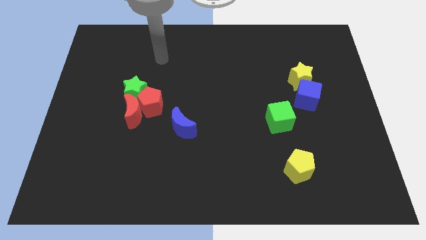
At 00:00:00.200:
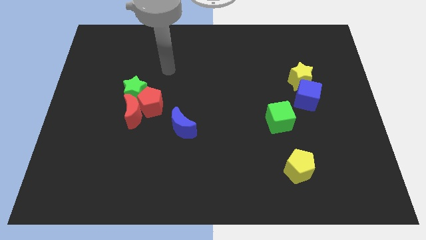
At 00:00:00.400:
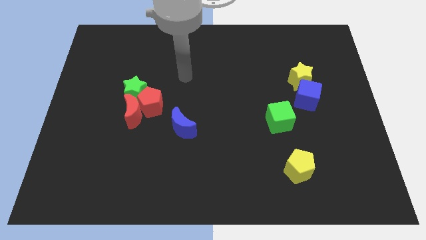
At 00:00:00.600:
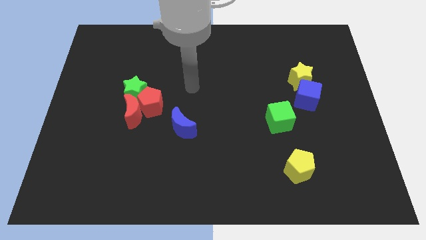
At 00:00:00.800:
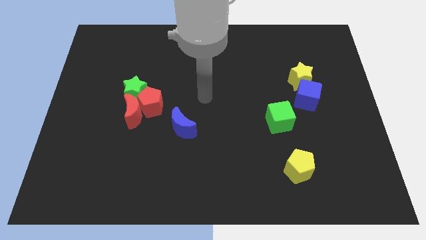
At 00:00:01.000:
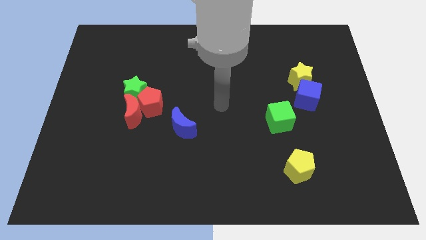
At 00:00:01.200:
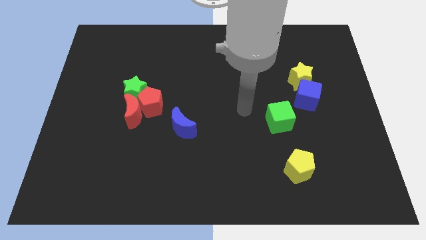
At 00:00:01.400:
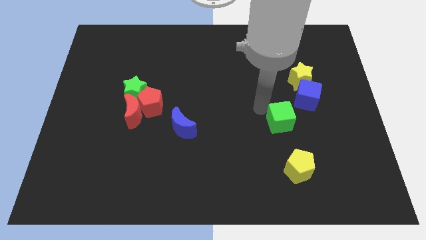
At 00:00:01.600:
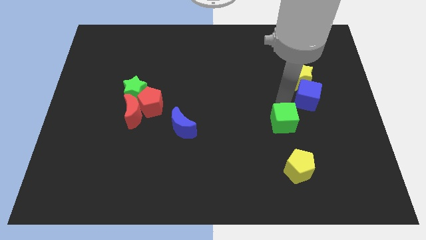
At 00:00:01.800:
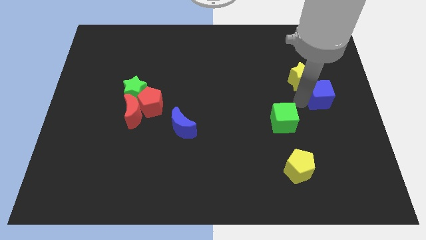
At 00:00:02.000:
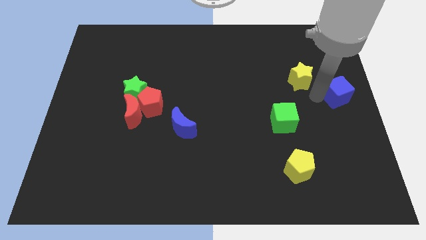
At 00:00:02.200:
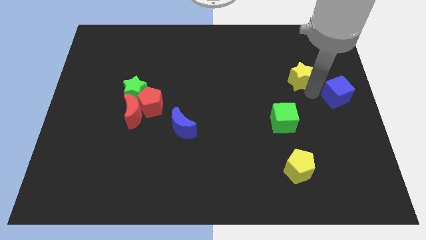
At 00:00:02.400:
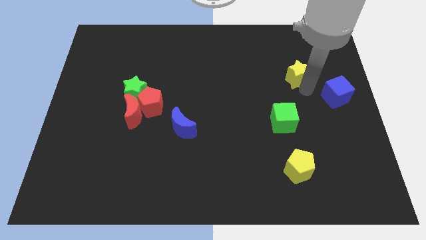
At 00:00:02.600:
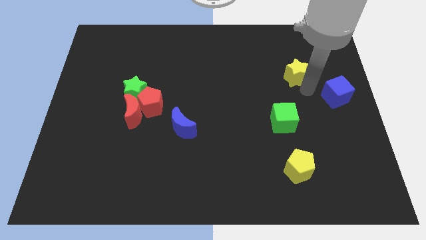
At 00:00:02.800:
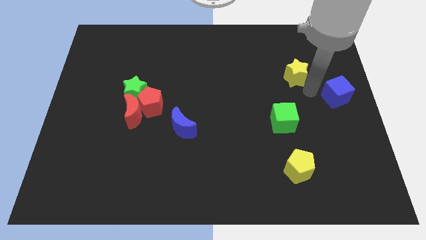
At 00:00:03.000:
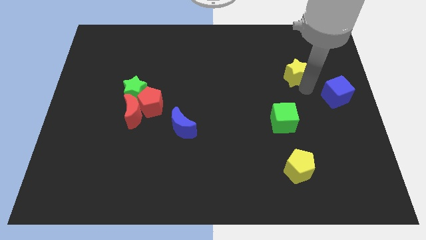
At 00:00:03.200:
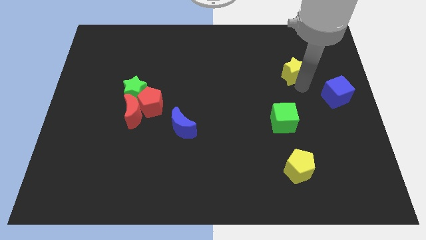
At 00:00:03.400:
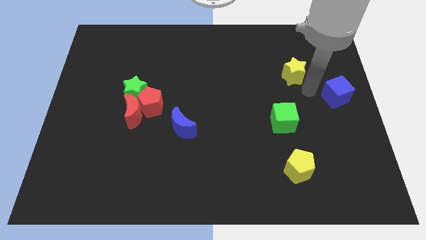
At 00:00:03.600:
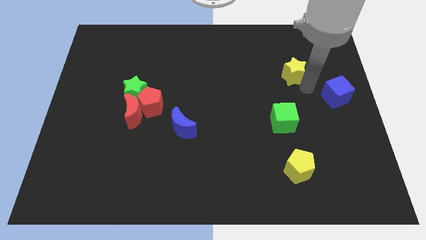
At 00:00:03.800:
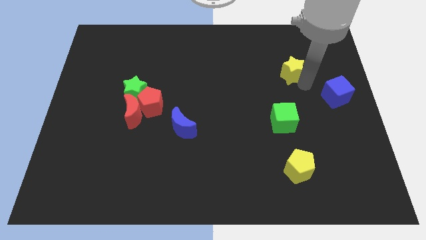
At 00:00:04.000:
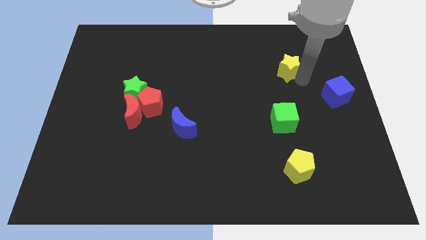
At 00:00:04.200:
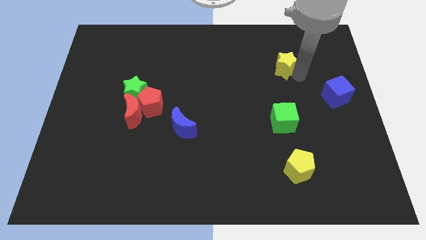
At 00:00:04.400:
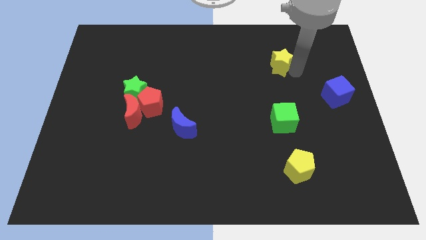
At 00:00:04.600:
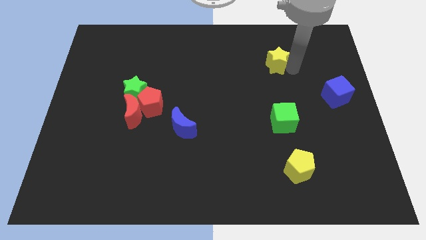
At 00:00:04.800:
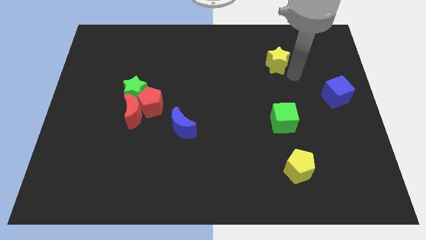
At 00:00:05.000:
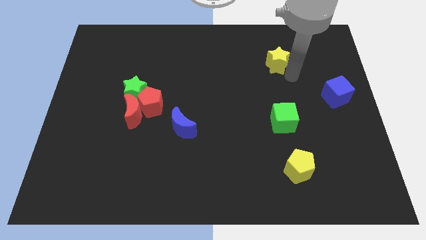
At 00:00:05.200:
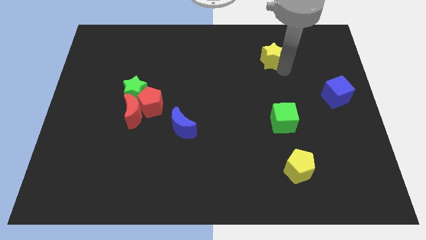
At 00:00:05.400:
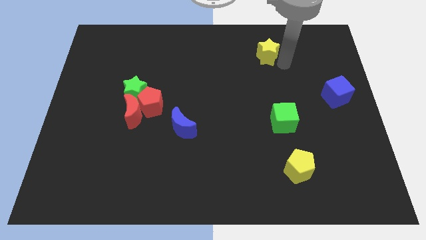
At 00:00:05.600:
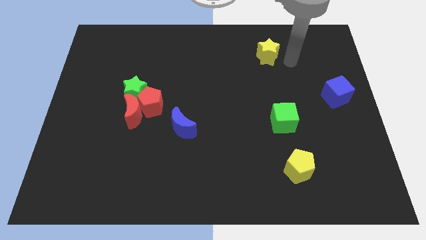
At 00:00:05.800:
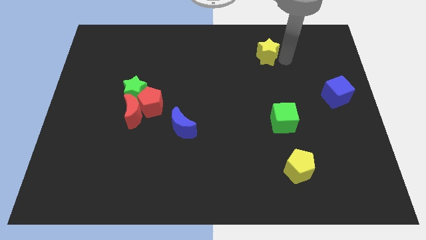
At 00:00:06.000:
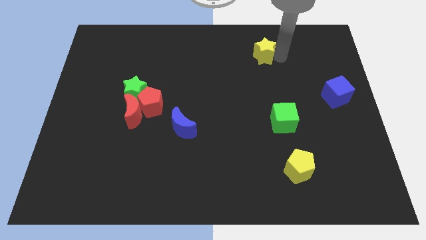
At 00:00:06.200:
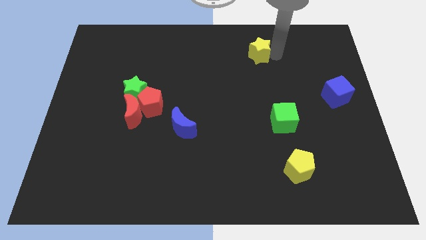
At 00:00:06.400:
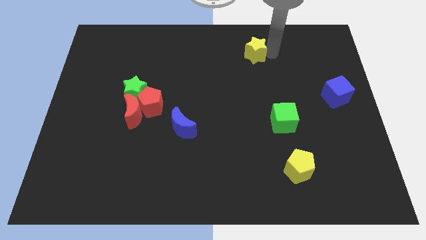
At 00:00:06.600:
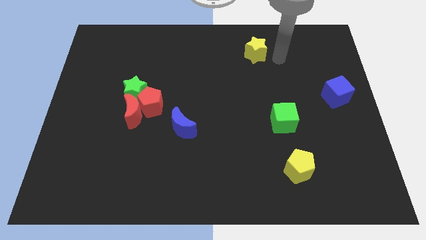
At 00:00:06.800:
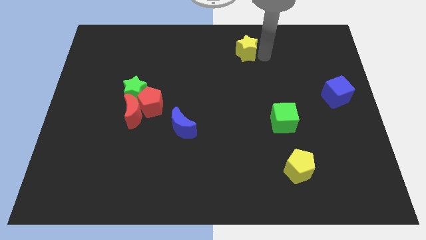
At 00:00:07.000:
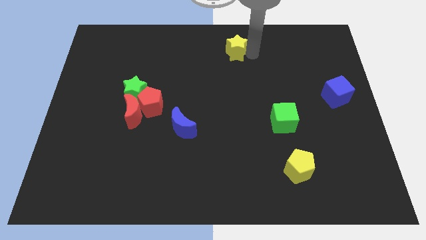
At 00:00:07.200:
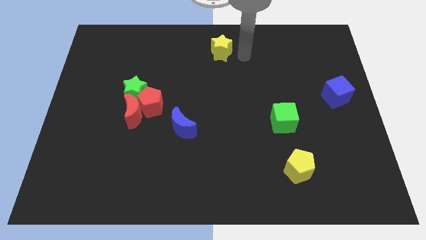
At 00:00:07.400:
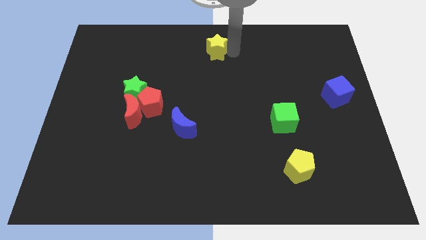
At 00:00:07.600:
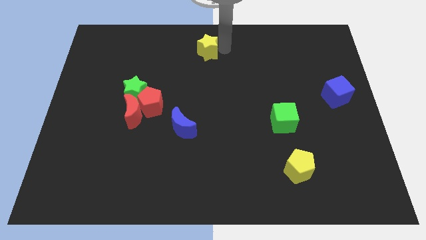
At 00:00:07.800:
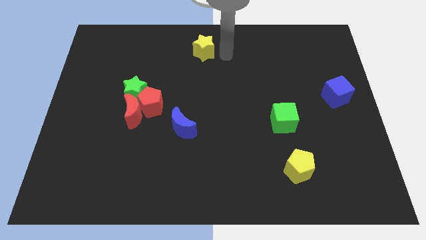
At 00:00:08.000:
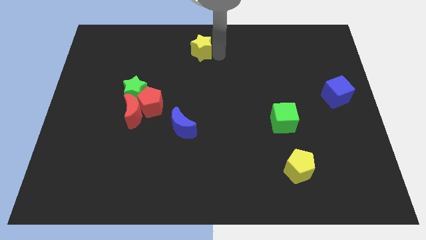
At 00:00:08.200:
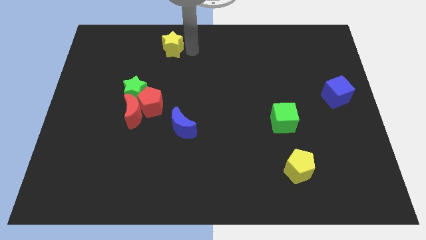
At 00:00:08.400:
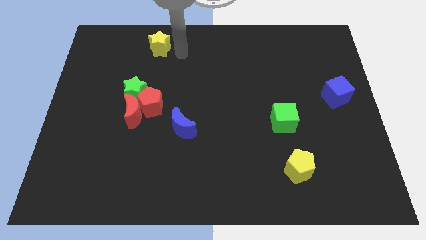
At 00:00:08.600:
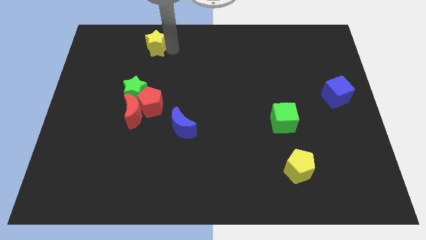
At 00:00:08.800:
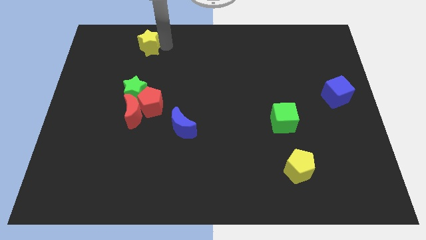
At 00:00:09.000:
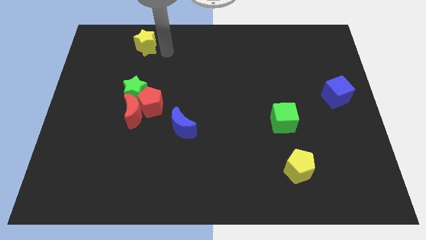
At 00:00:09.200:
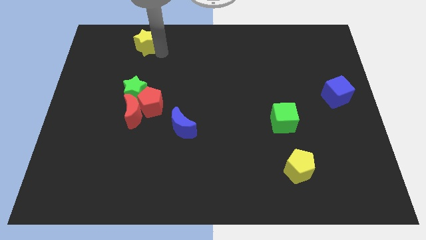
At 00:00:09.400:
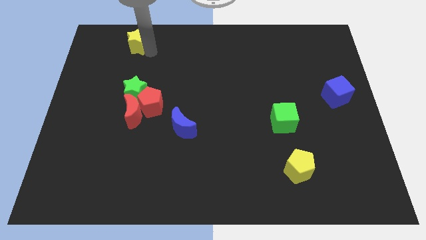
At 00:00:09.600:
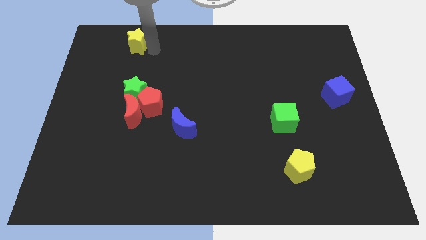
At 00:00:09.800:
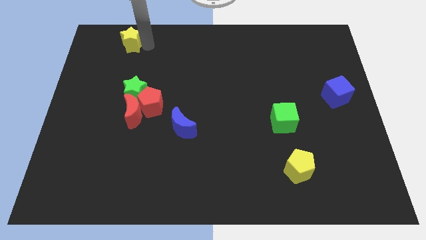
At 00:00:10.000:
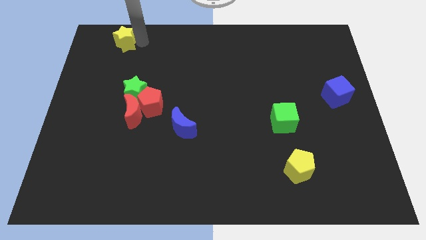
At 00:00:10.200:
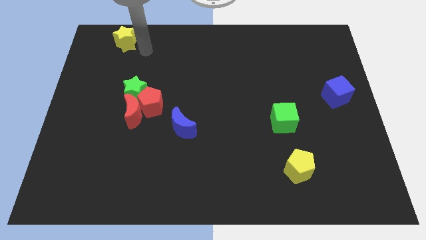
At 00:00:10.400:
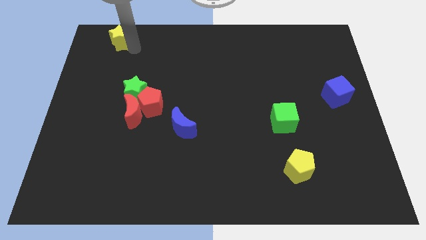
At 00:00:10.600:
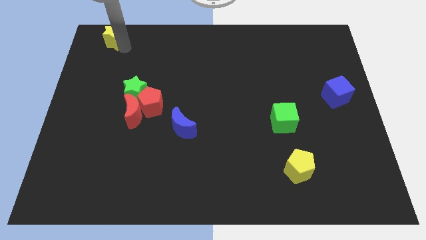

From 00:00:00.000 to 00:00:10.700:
move the yellow star to the top left of the board

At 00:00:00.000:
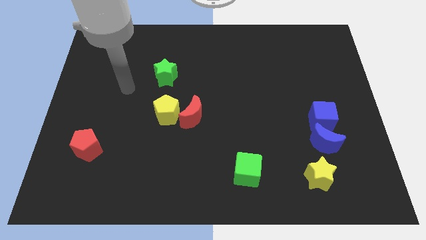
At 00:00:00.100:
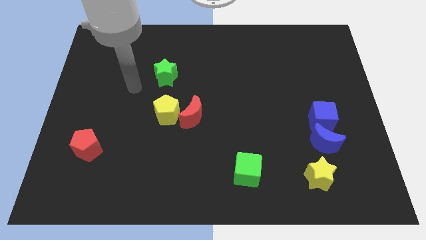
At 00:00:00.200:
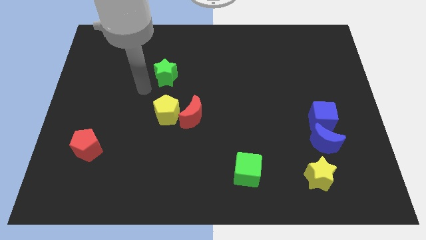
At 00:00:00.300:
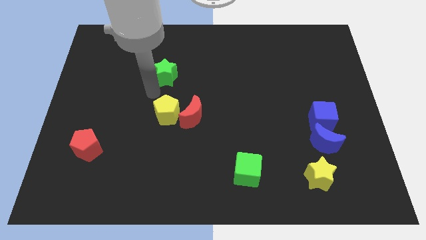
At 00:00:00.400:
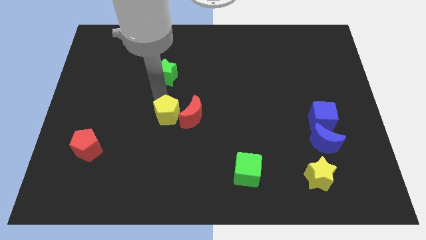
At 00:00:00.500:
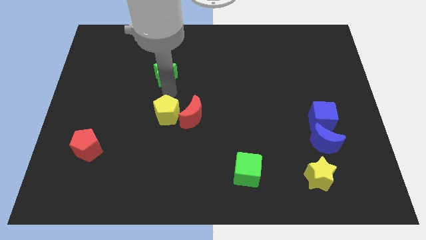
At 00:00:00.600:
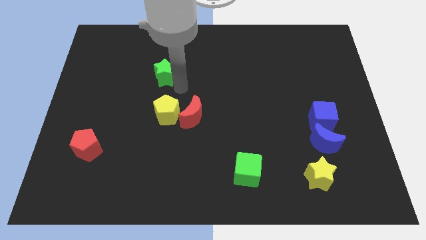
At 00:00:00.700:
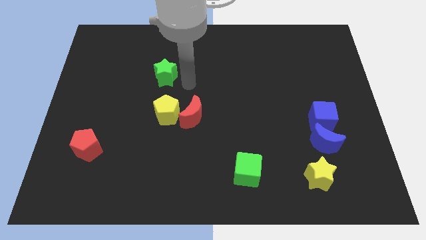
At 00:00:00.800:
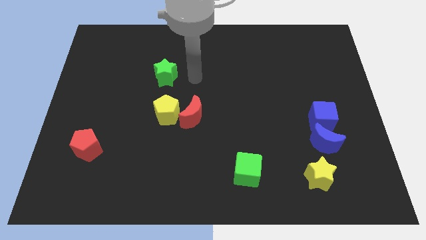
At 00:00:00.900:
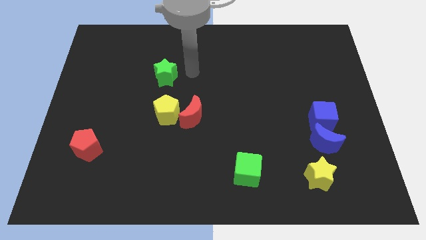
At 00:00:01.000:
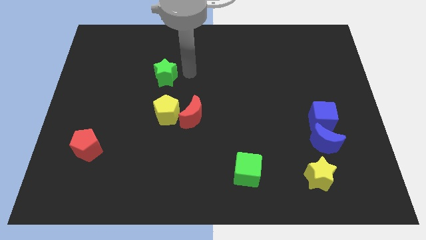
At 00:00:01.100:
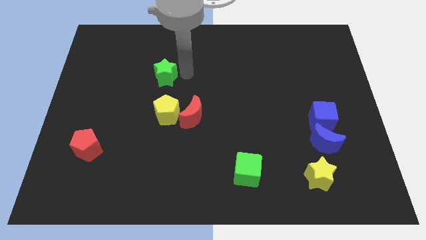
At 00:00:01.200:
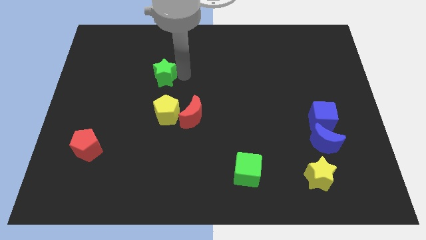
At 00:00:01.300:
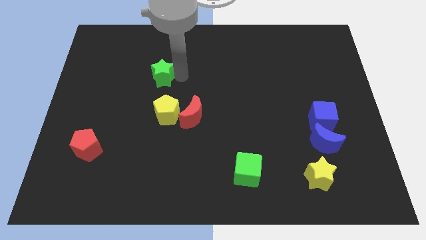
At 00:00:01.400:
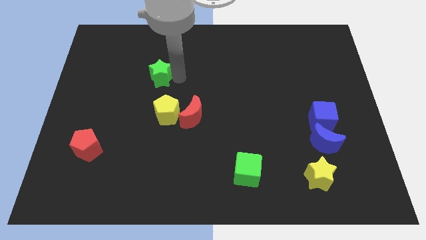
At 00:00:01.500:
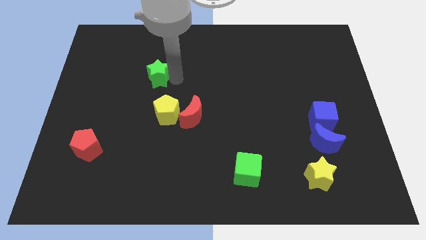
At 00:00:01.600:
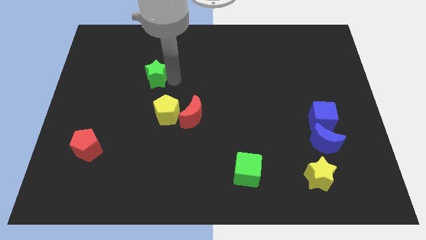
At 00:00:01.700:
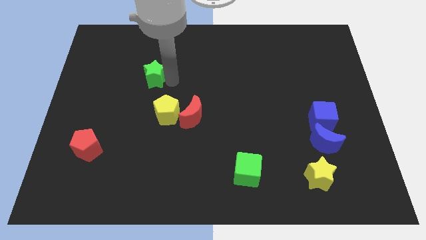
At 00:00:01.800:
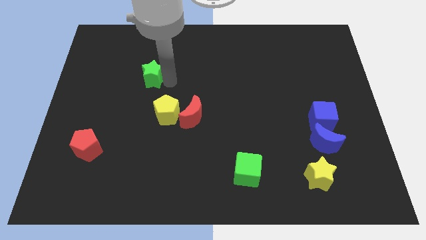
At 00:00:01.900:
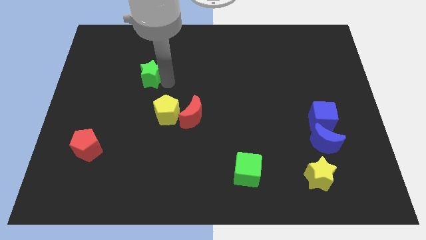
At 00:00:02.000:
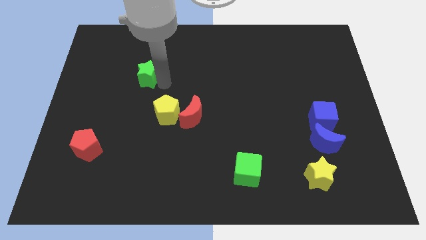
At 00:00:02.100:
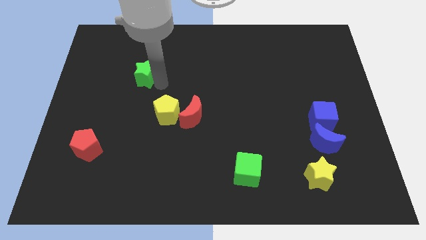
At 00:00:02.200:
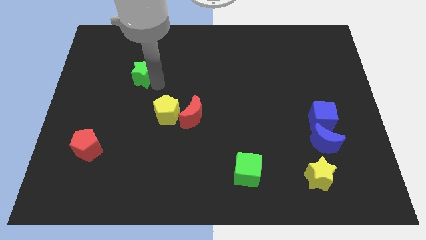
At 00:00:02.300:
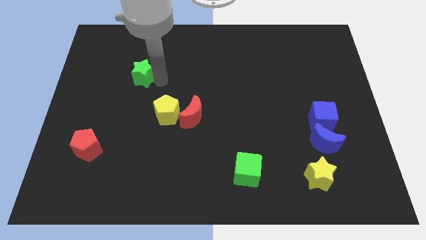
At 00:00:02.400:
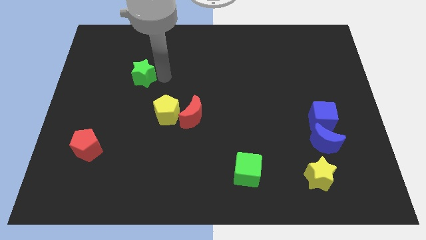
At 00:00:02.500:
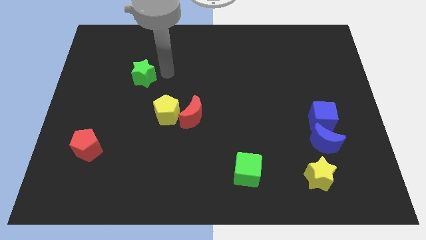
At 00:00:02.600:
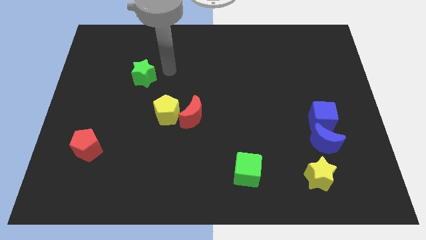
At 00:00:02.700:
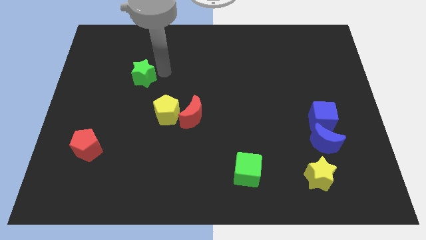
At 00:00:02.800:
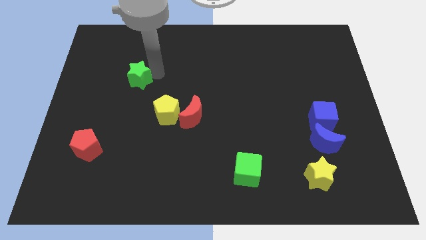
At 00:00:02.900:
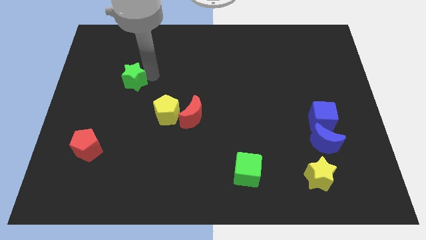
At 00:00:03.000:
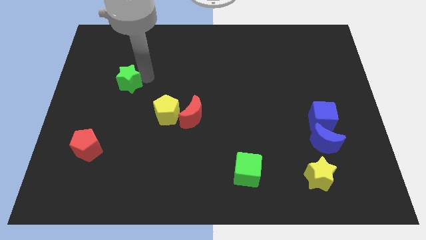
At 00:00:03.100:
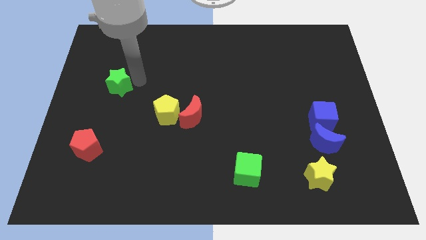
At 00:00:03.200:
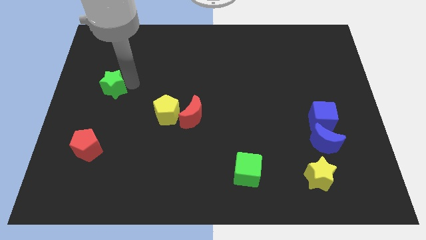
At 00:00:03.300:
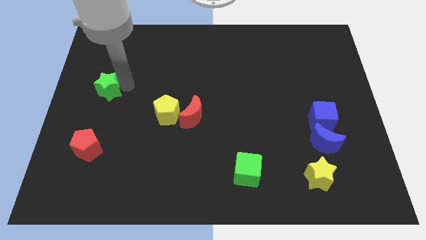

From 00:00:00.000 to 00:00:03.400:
move the green star to the center left
